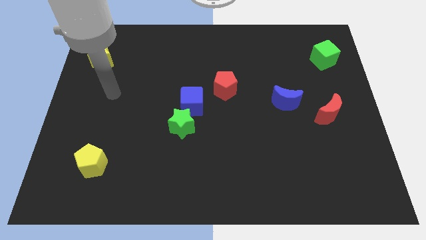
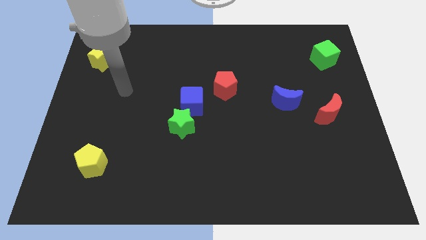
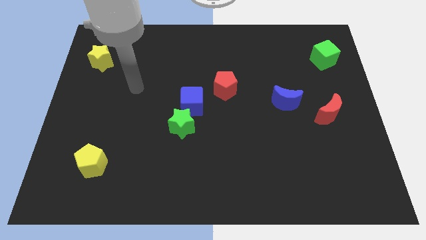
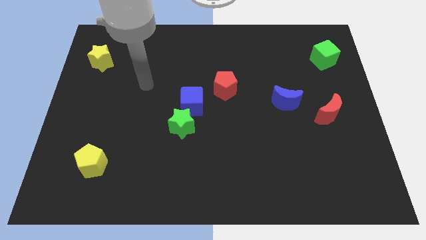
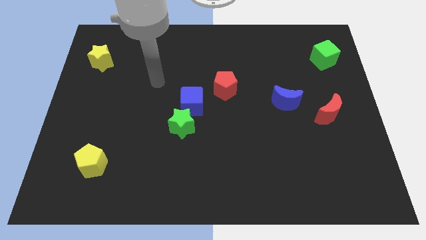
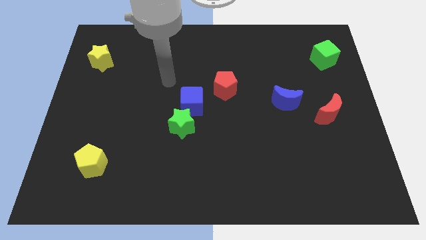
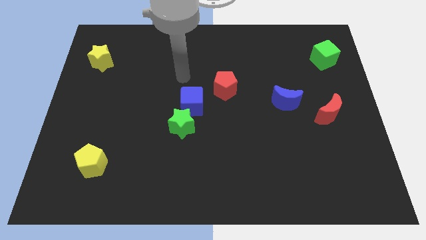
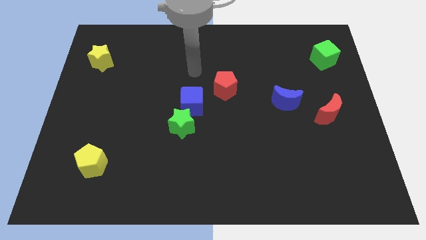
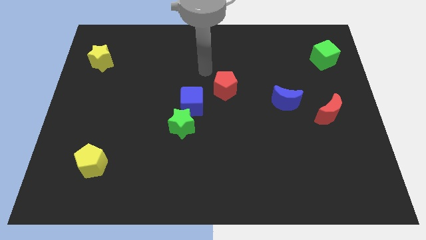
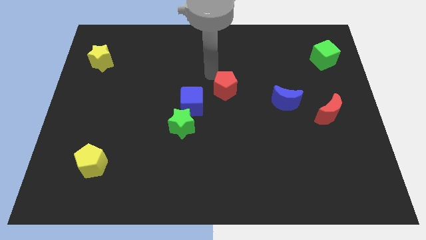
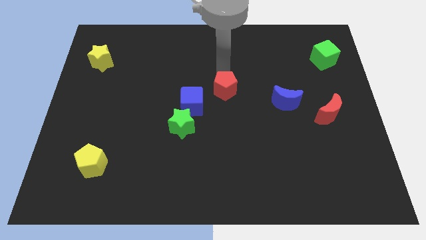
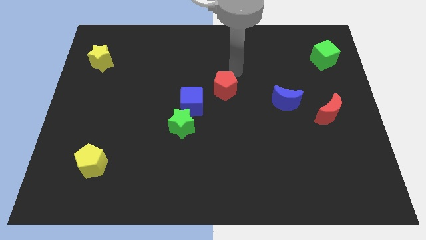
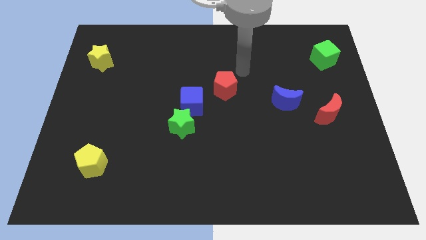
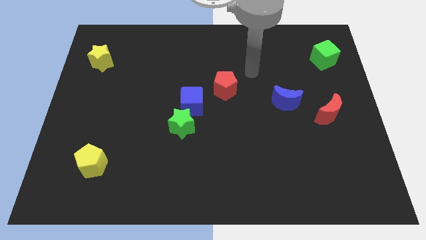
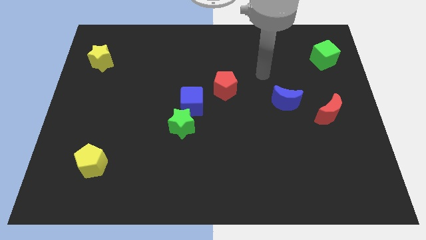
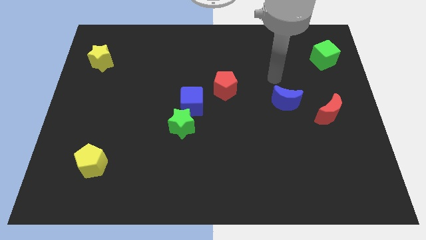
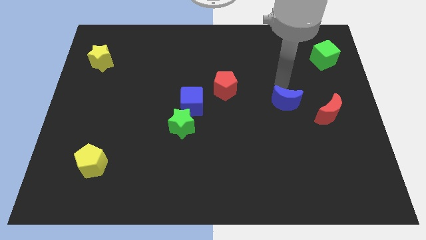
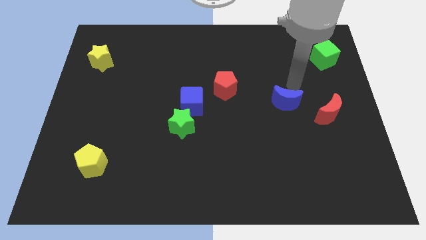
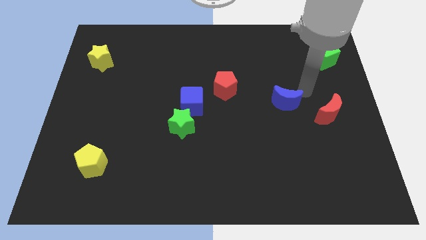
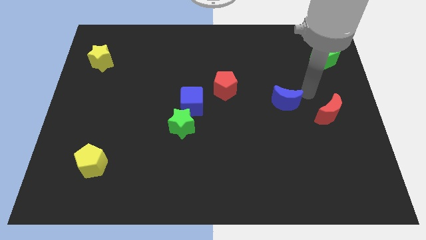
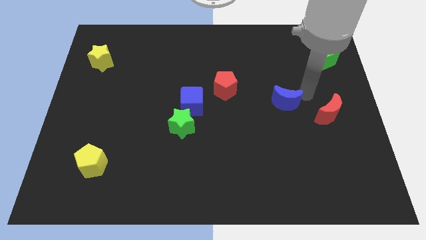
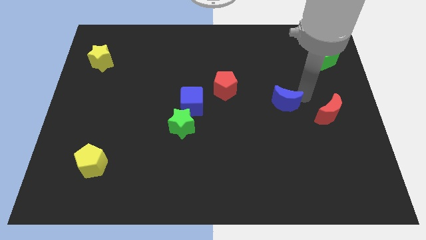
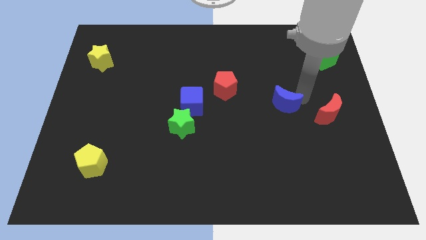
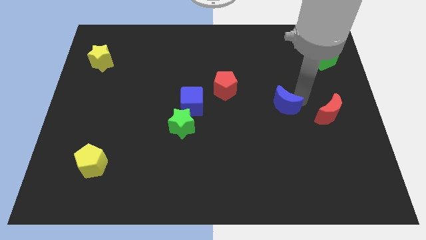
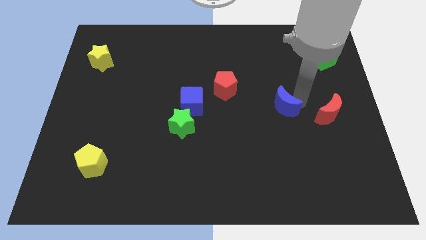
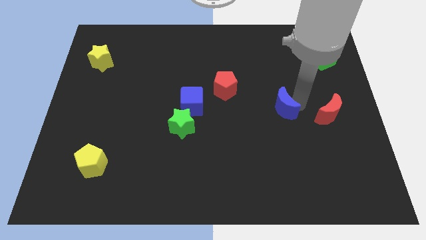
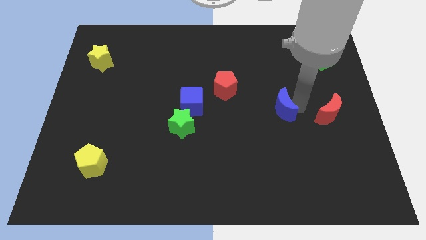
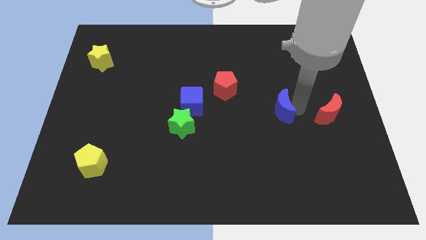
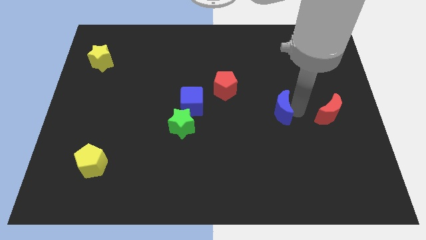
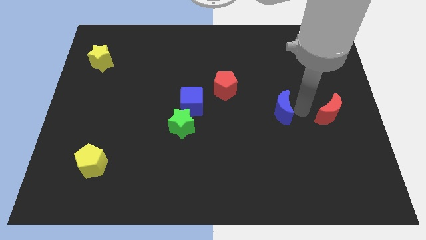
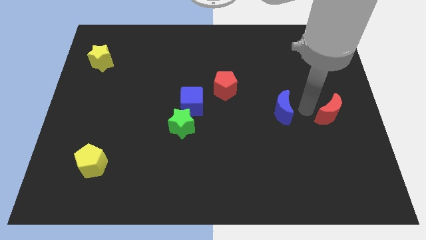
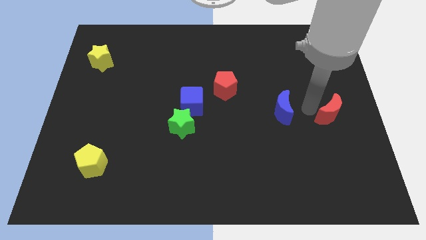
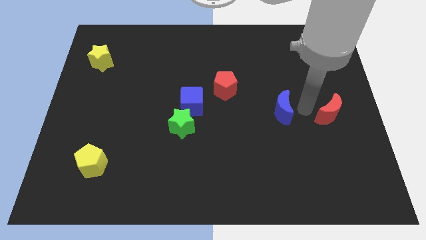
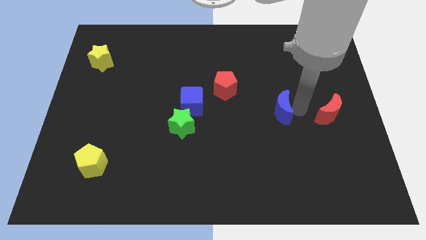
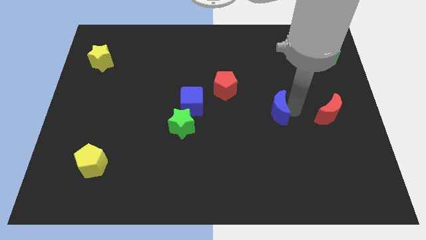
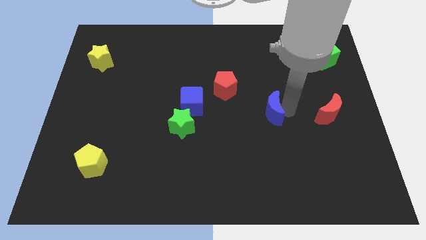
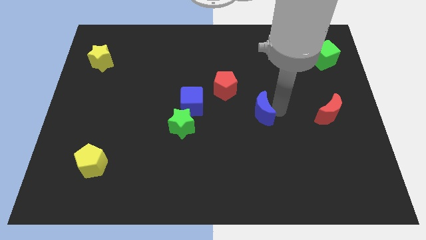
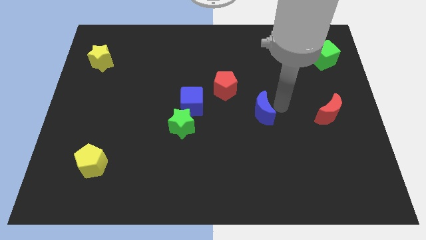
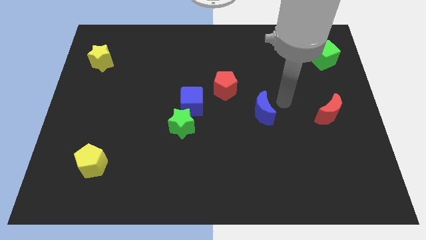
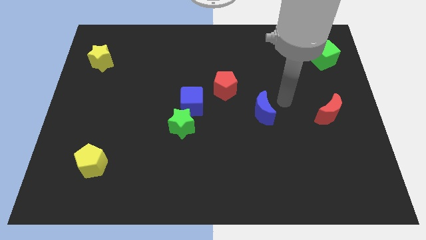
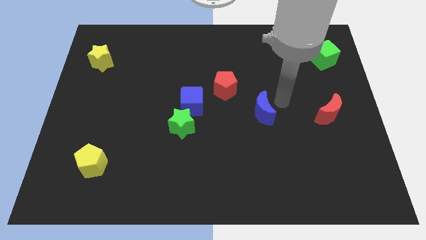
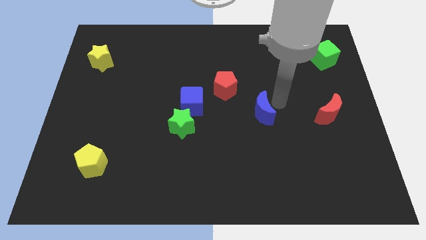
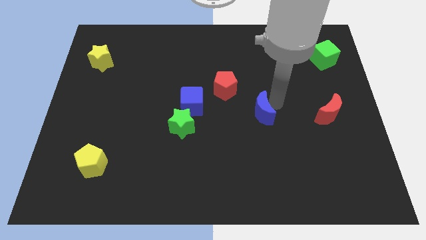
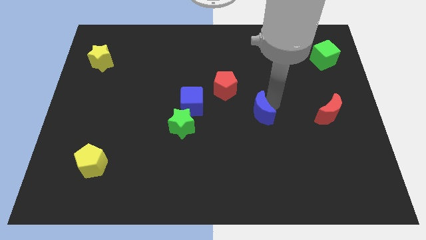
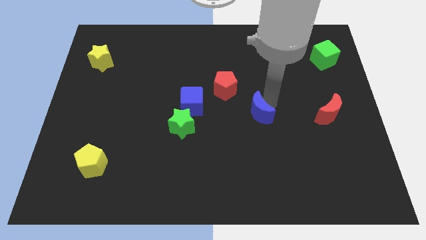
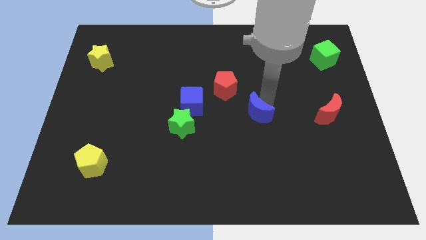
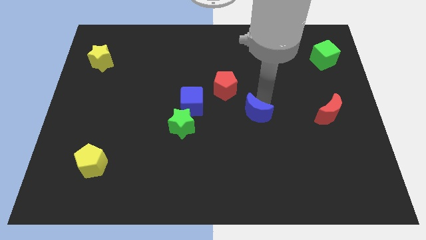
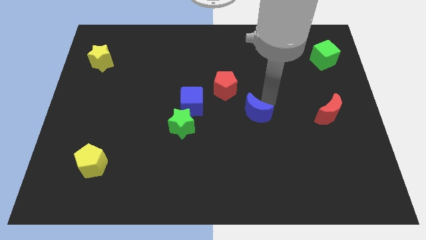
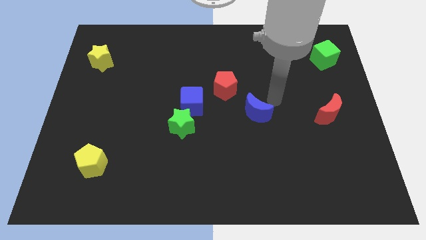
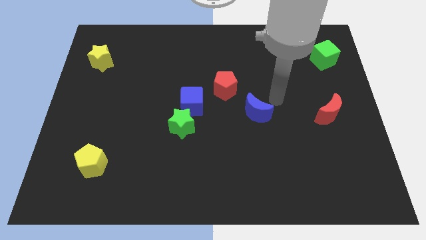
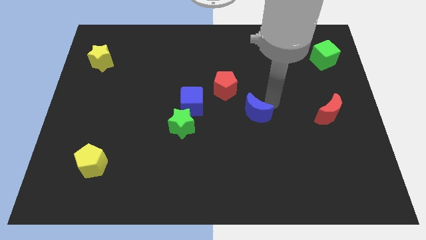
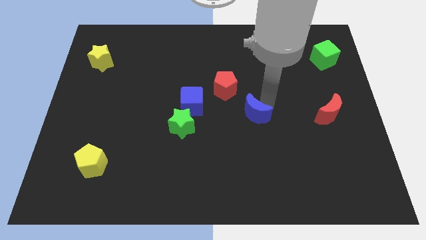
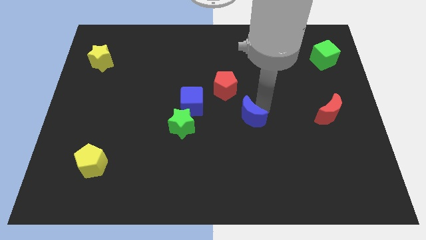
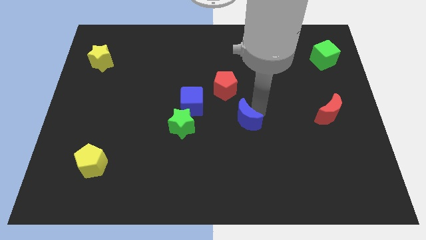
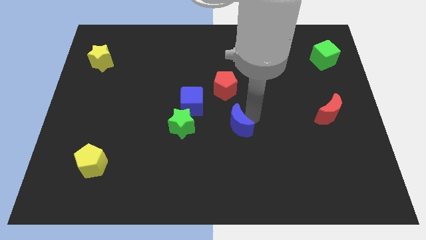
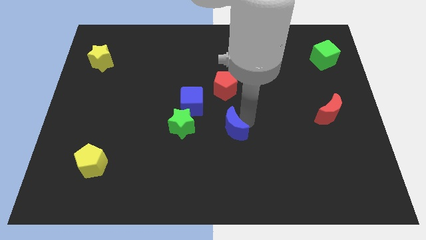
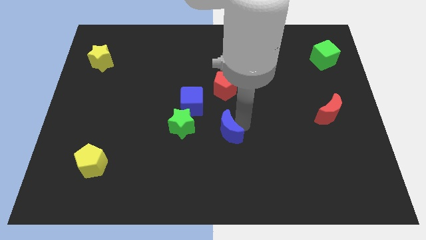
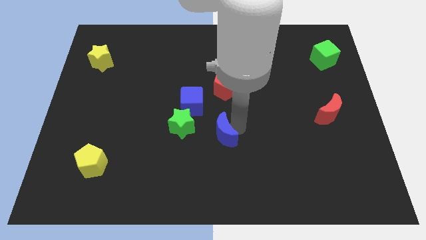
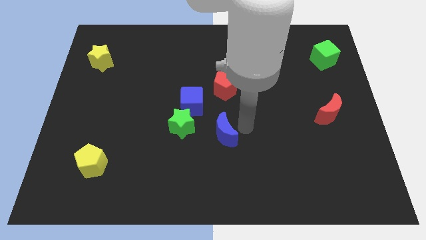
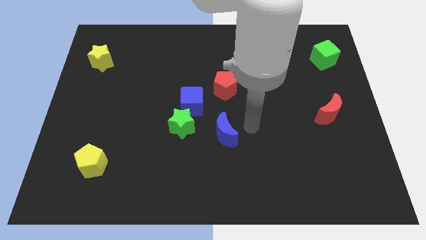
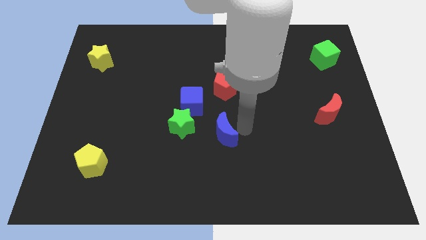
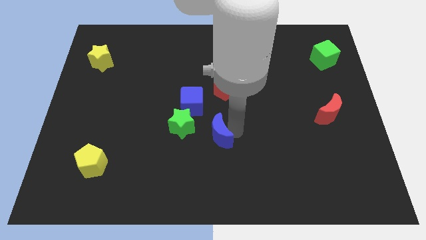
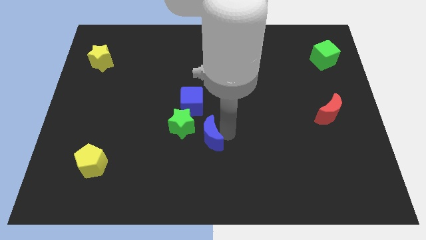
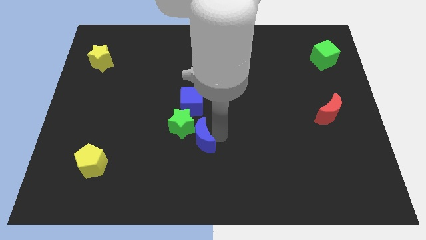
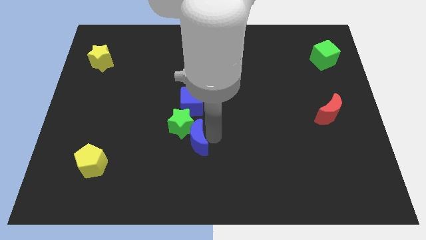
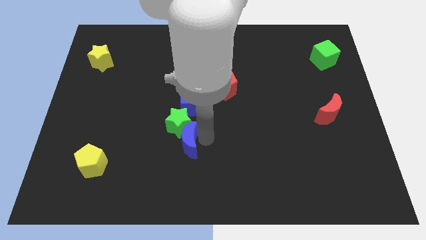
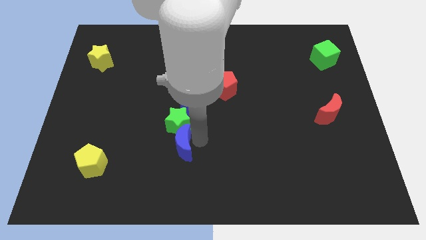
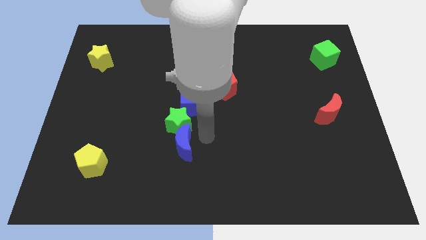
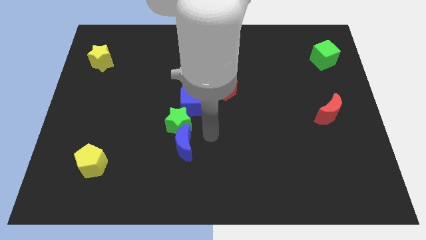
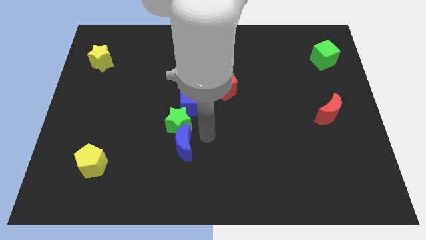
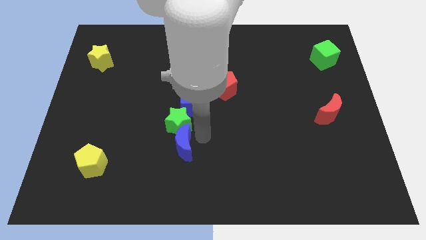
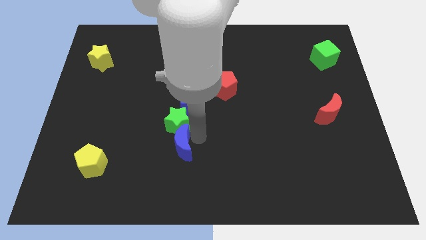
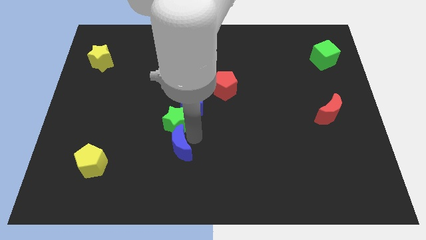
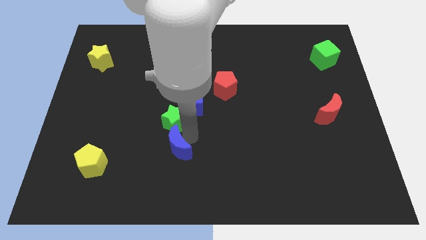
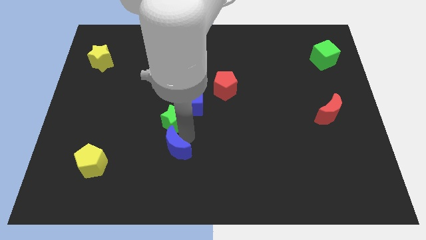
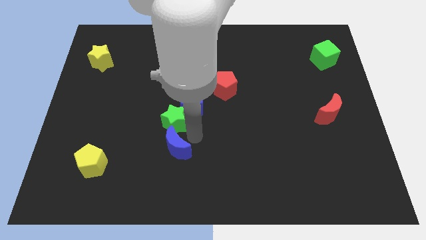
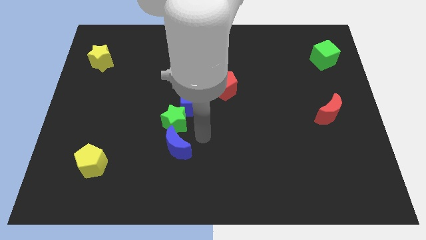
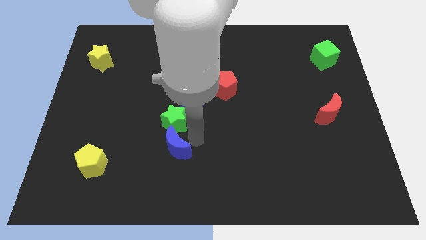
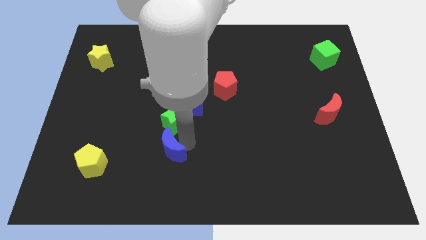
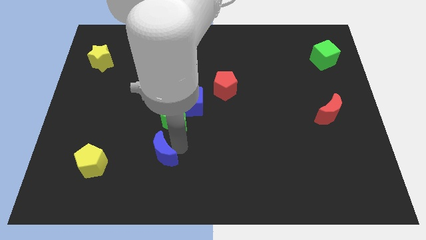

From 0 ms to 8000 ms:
move the blue moon to the right side of the yellow pentagon
